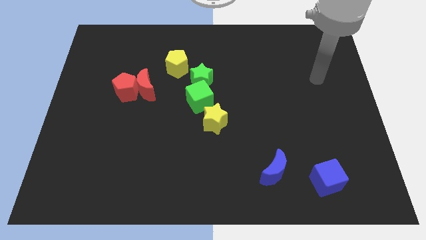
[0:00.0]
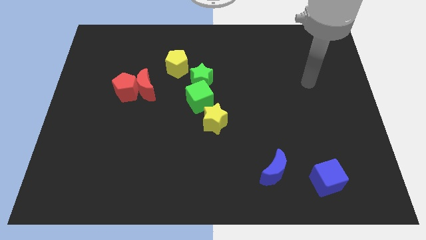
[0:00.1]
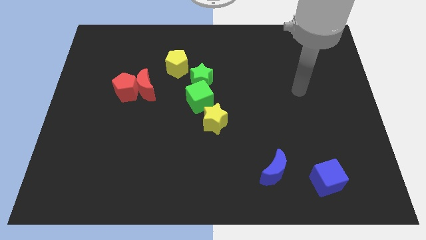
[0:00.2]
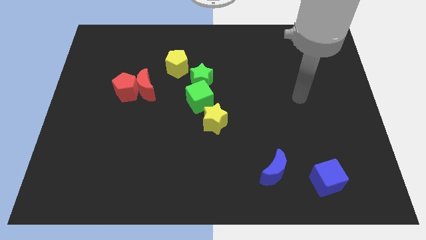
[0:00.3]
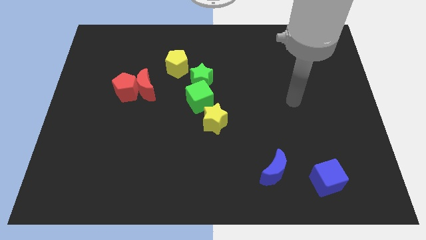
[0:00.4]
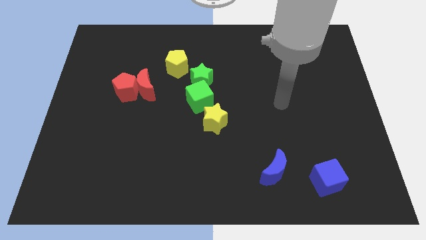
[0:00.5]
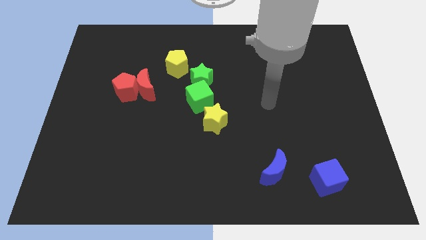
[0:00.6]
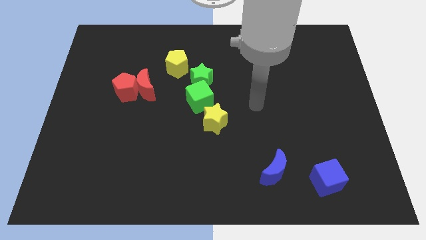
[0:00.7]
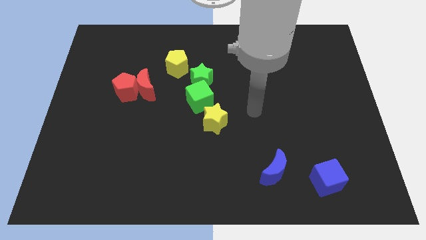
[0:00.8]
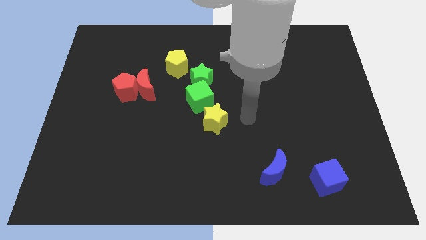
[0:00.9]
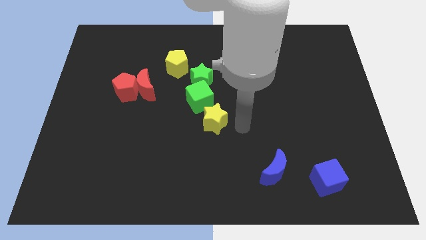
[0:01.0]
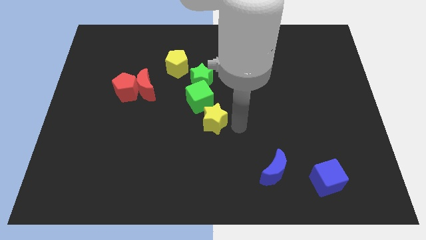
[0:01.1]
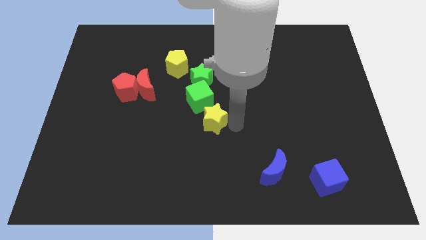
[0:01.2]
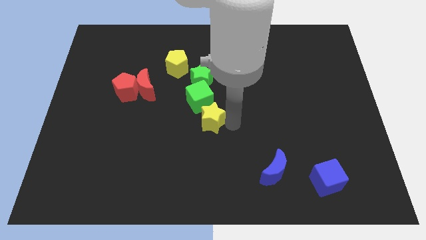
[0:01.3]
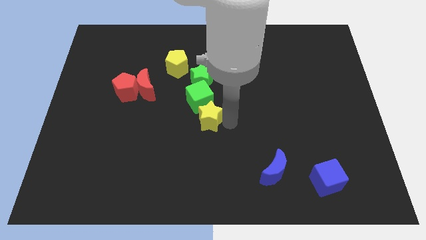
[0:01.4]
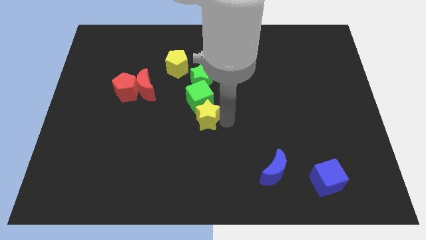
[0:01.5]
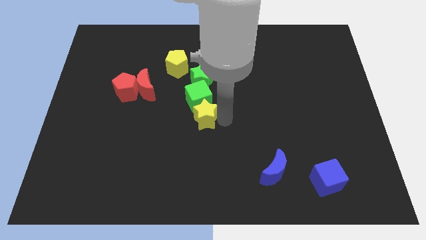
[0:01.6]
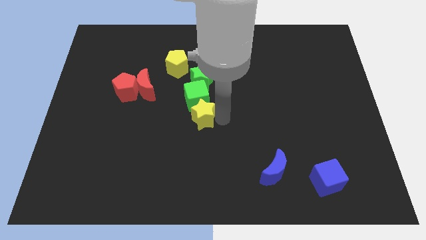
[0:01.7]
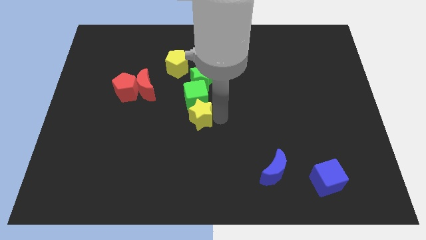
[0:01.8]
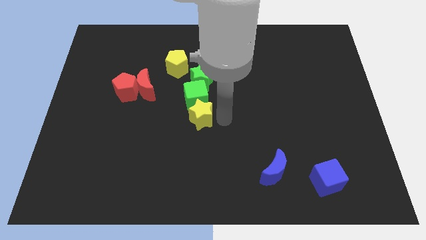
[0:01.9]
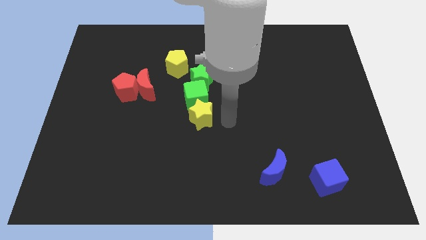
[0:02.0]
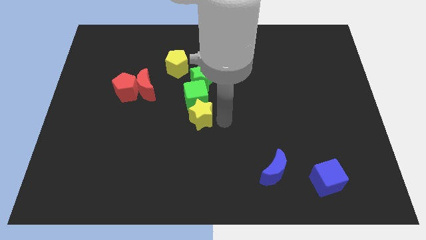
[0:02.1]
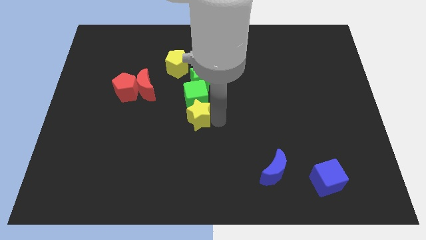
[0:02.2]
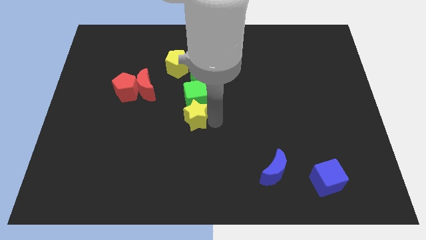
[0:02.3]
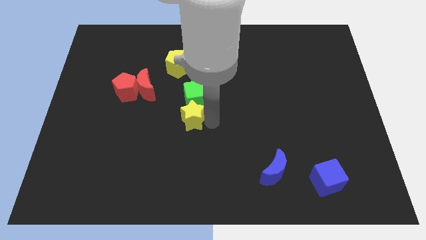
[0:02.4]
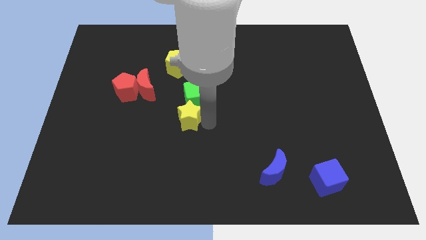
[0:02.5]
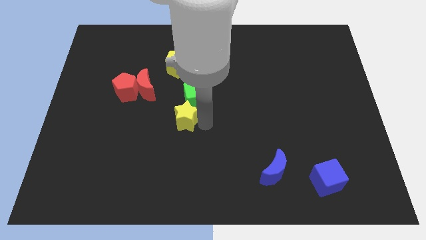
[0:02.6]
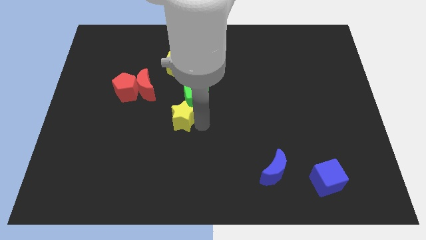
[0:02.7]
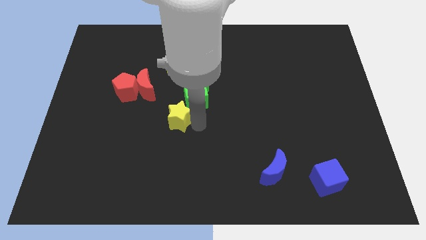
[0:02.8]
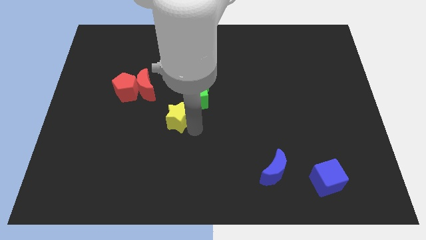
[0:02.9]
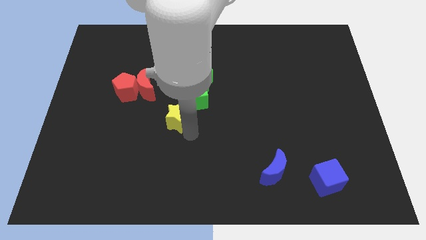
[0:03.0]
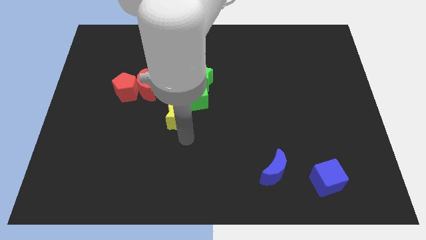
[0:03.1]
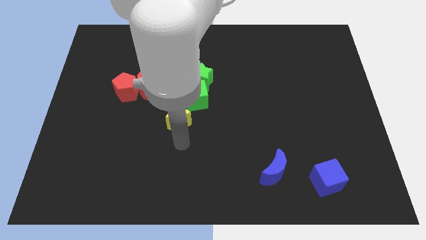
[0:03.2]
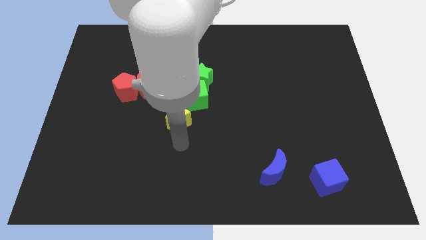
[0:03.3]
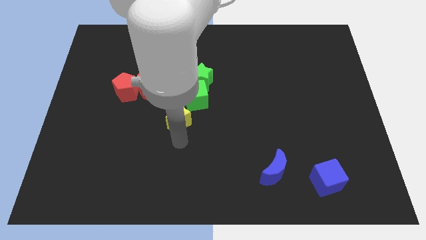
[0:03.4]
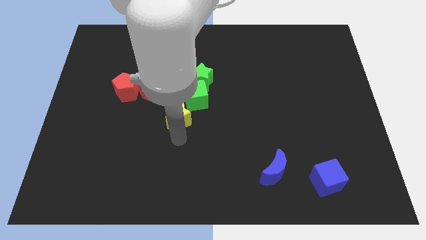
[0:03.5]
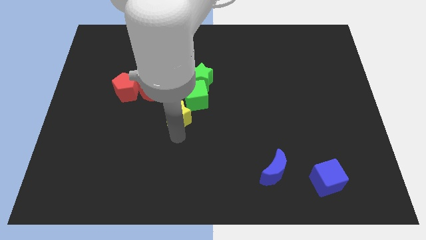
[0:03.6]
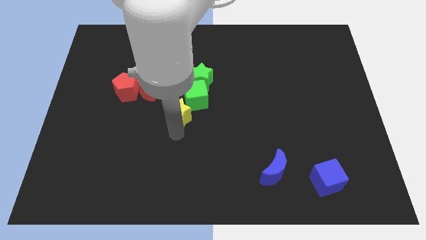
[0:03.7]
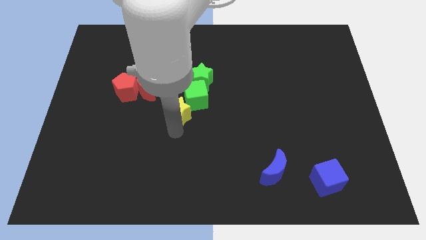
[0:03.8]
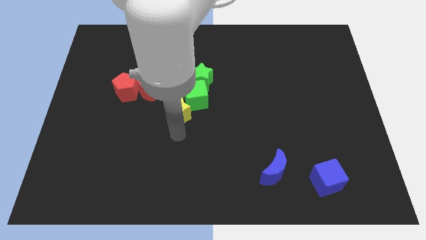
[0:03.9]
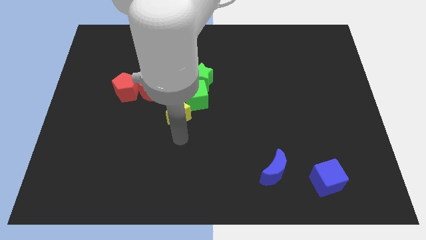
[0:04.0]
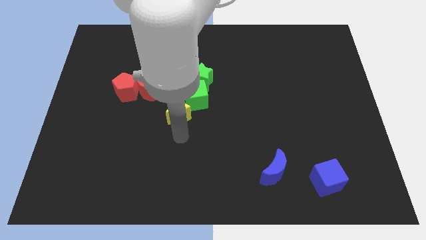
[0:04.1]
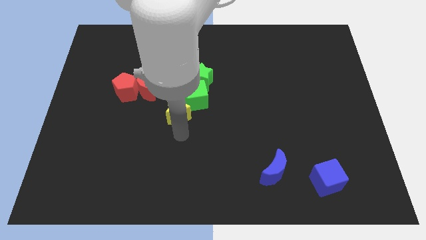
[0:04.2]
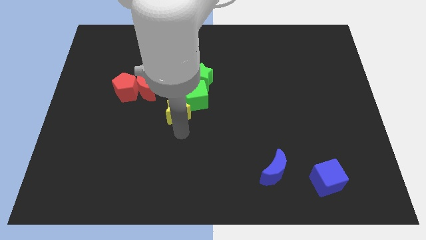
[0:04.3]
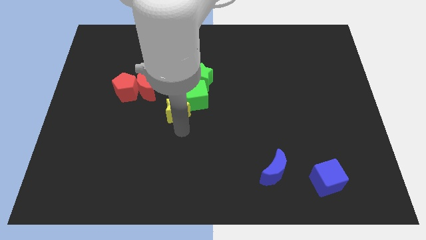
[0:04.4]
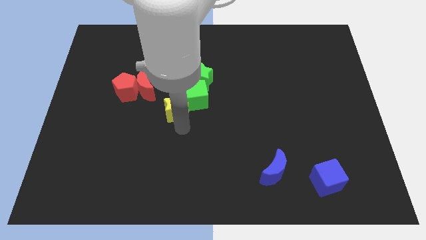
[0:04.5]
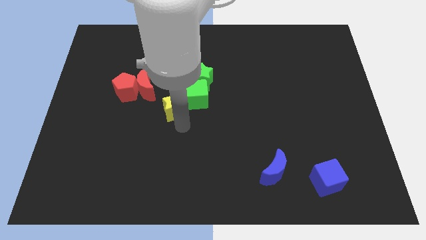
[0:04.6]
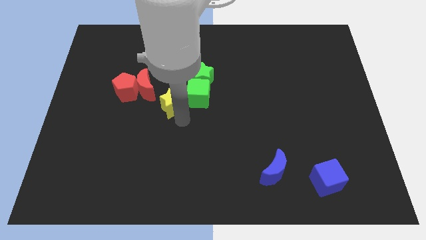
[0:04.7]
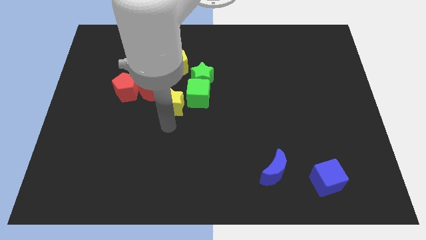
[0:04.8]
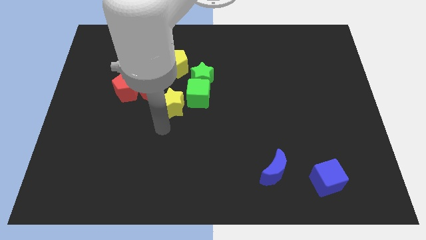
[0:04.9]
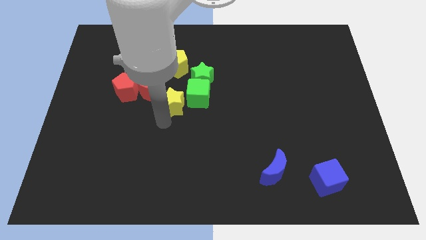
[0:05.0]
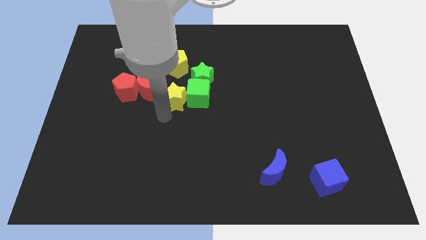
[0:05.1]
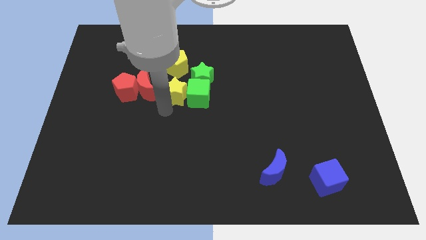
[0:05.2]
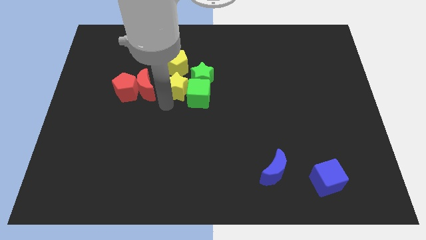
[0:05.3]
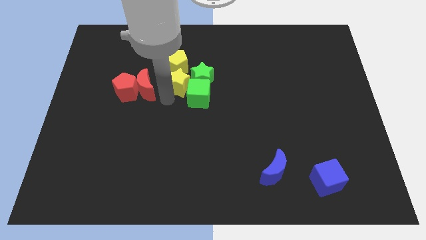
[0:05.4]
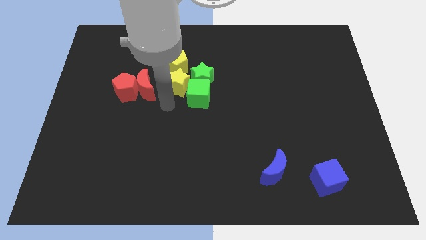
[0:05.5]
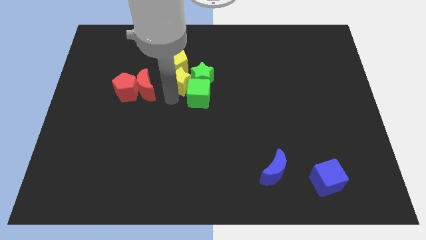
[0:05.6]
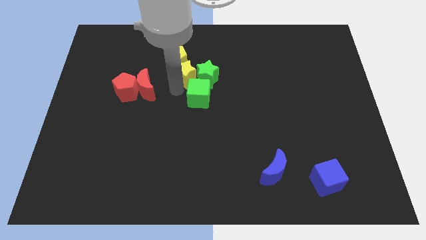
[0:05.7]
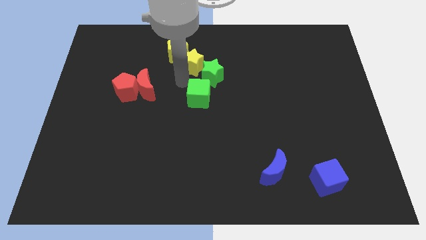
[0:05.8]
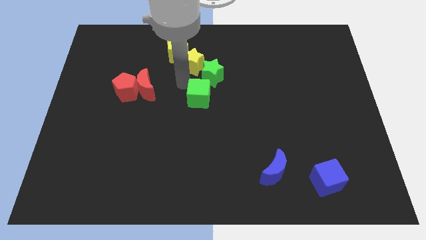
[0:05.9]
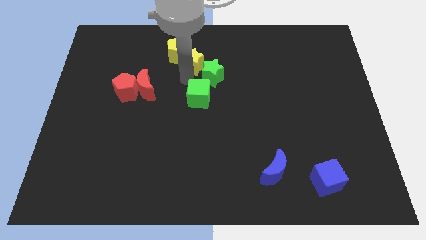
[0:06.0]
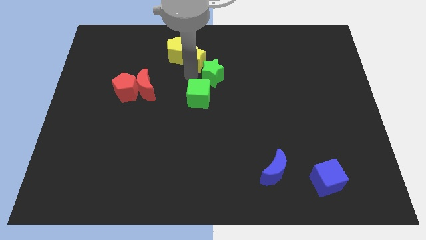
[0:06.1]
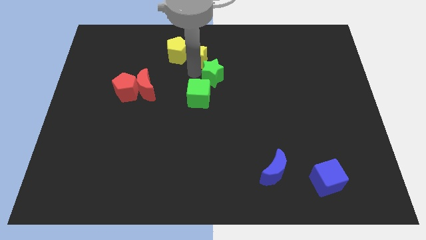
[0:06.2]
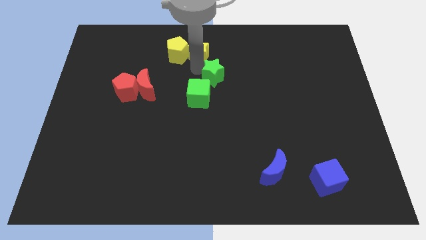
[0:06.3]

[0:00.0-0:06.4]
push the yellow star to the towards your base
